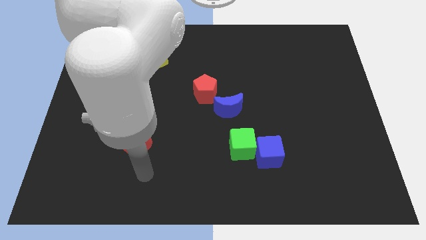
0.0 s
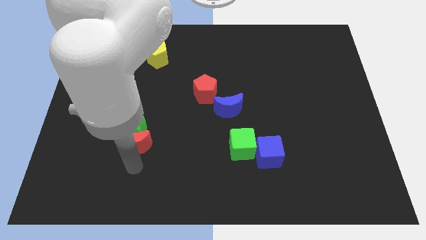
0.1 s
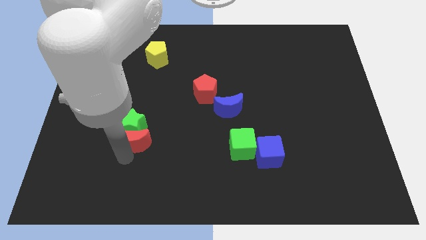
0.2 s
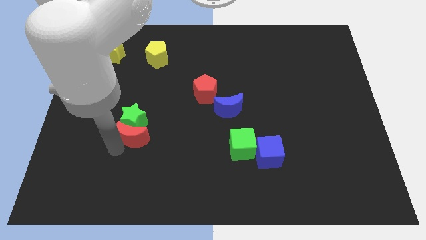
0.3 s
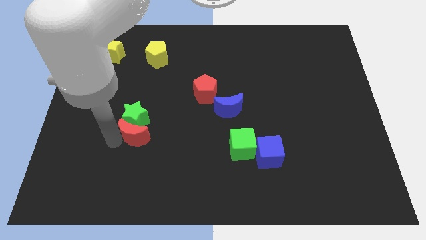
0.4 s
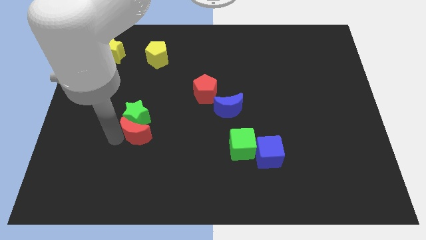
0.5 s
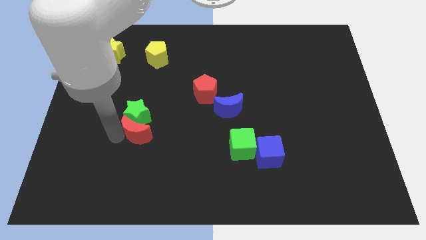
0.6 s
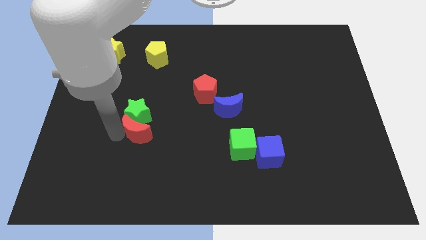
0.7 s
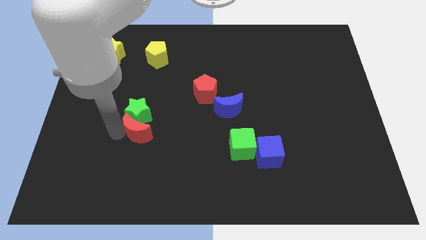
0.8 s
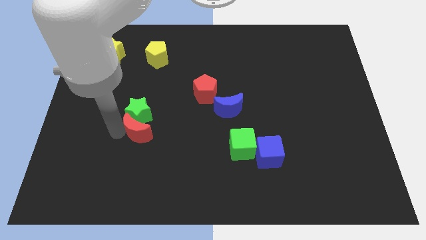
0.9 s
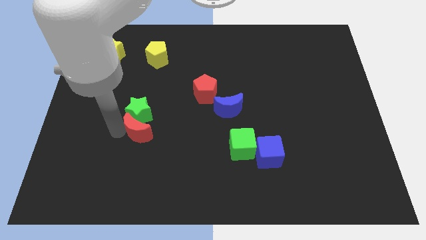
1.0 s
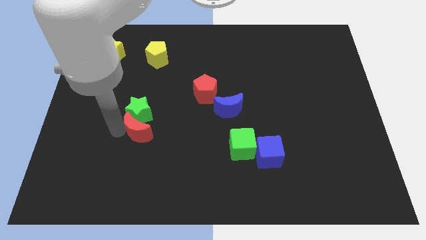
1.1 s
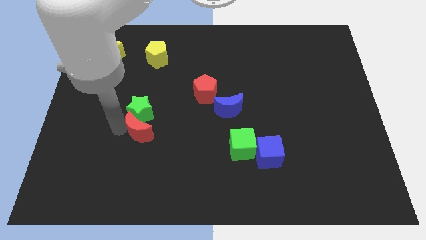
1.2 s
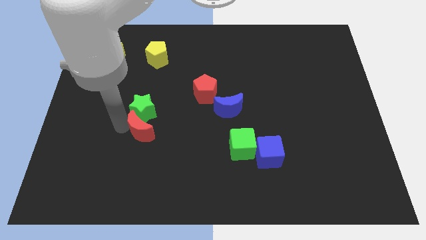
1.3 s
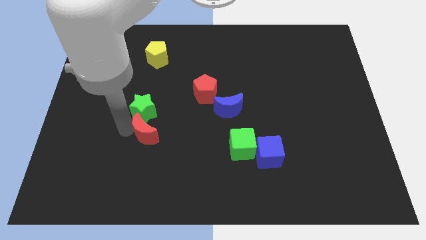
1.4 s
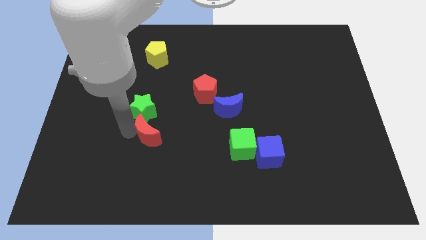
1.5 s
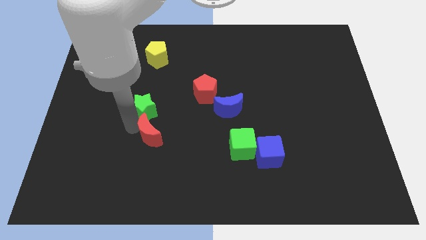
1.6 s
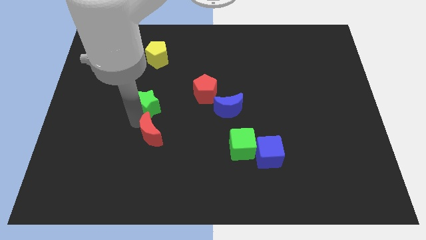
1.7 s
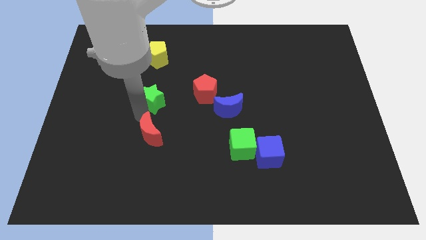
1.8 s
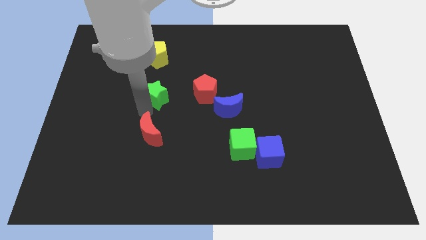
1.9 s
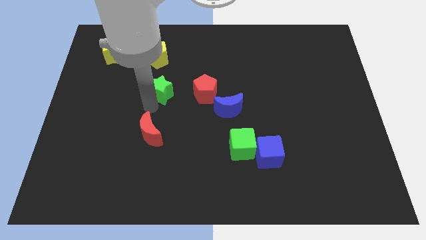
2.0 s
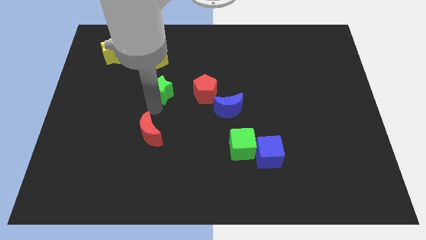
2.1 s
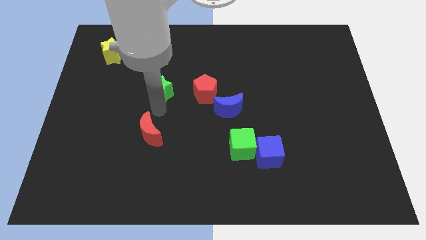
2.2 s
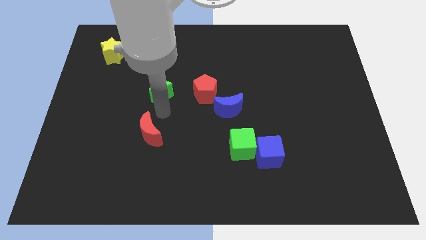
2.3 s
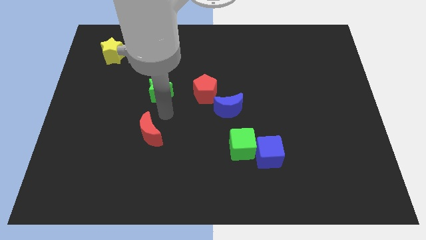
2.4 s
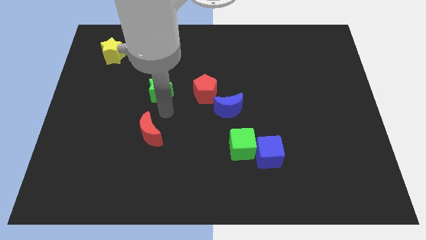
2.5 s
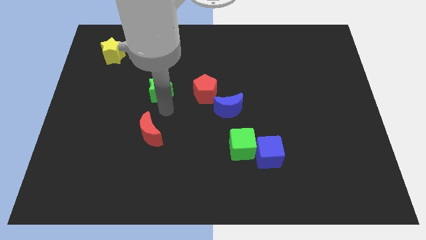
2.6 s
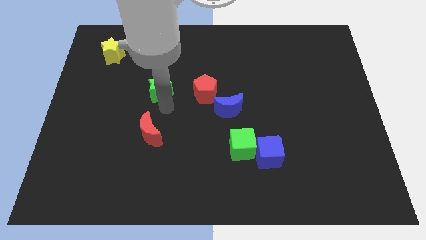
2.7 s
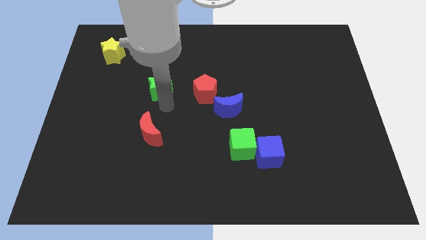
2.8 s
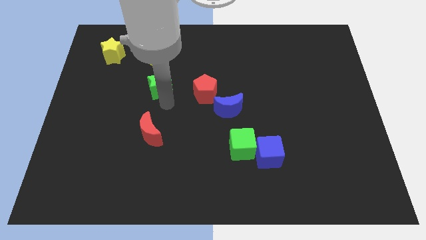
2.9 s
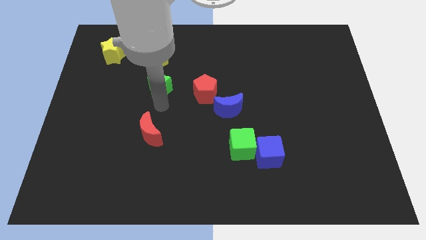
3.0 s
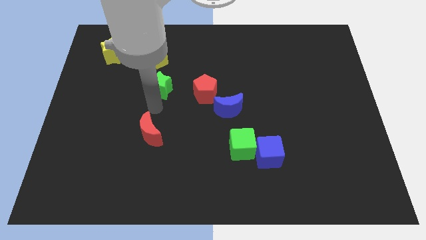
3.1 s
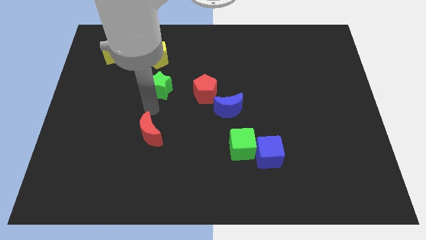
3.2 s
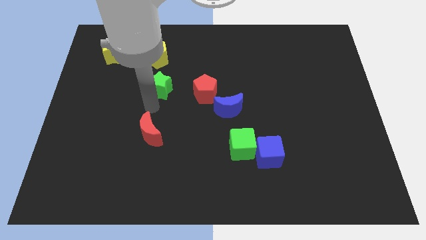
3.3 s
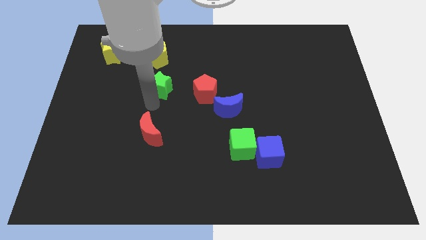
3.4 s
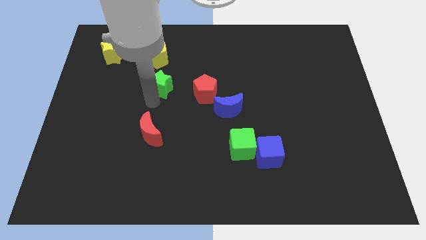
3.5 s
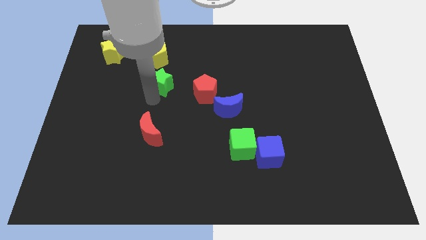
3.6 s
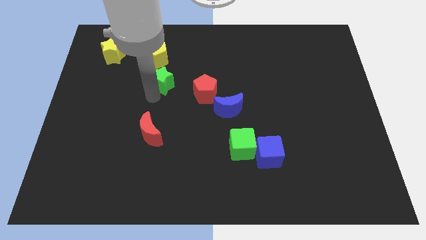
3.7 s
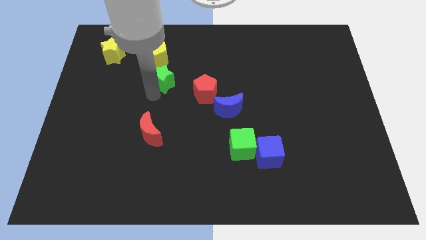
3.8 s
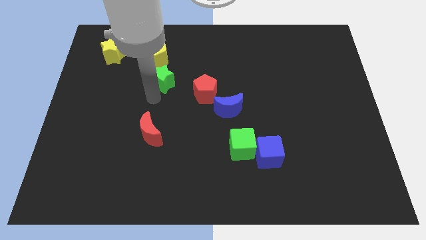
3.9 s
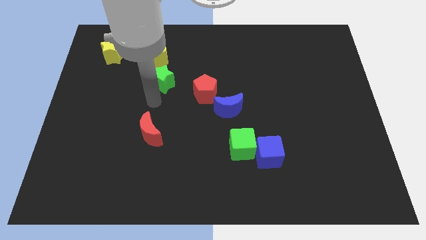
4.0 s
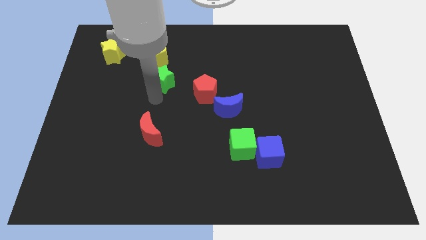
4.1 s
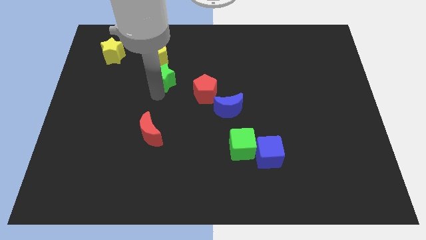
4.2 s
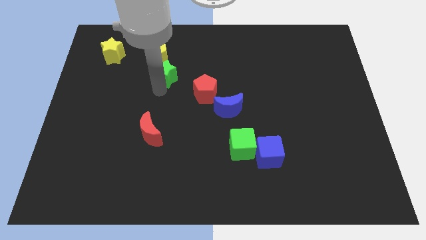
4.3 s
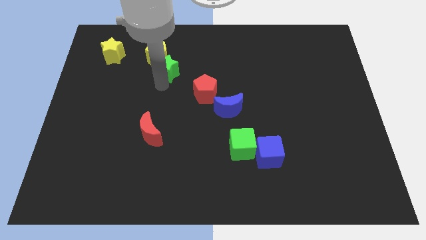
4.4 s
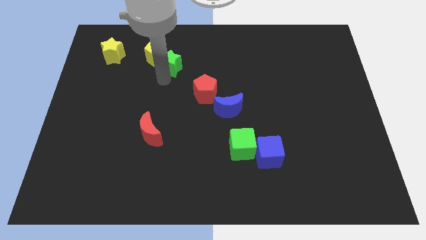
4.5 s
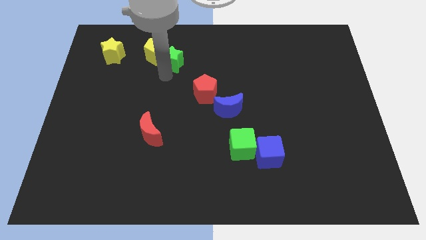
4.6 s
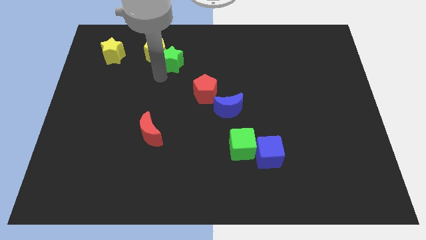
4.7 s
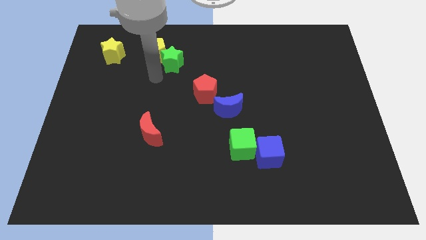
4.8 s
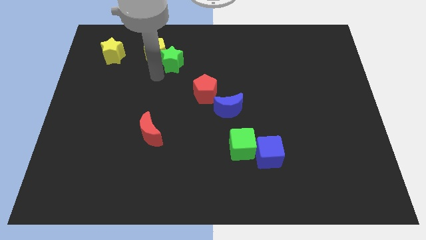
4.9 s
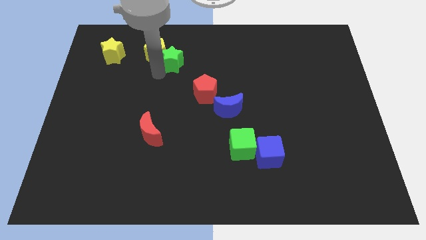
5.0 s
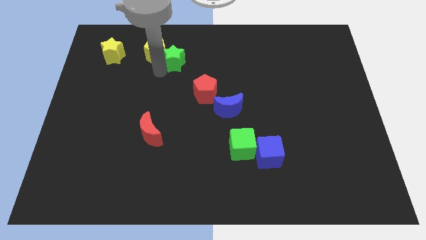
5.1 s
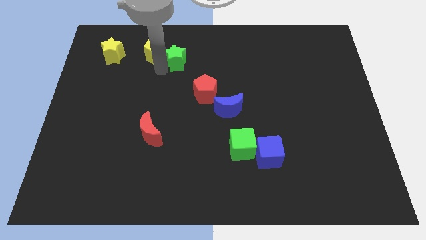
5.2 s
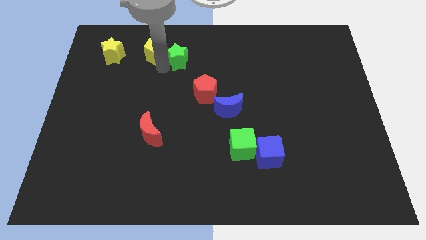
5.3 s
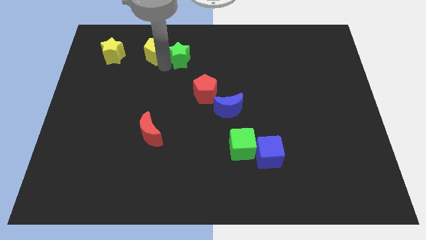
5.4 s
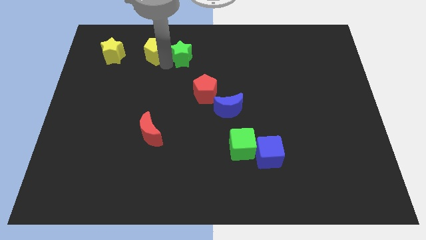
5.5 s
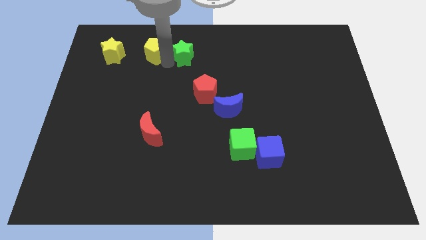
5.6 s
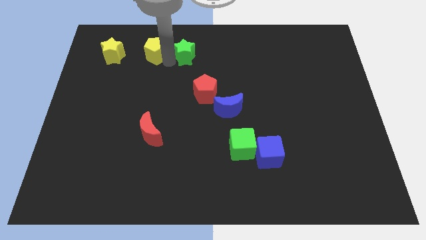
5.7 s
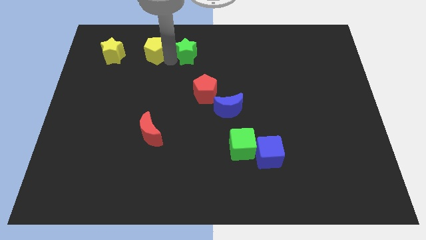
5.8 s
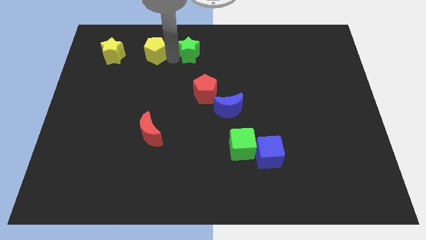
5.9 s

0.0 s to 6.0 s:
put the green star to the top side
